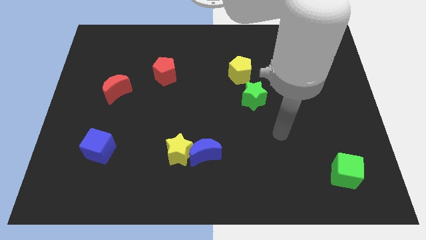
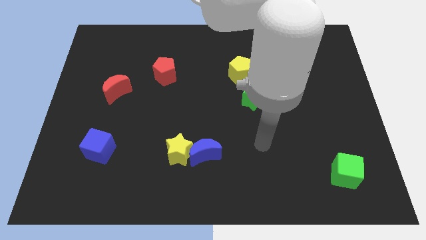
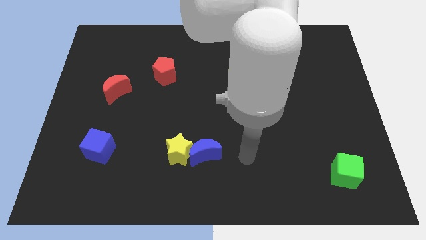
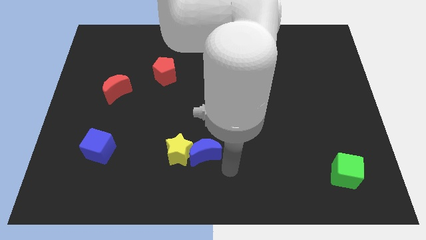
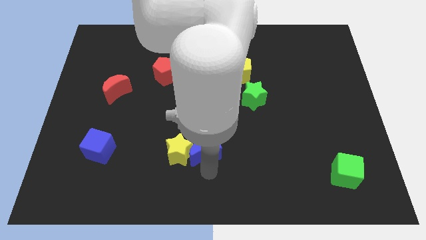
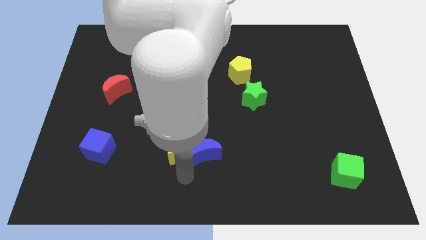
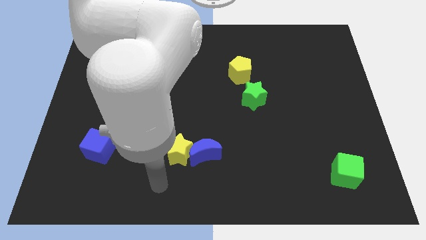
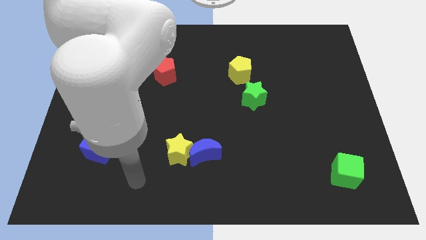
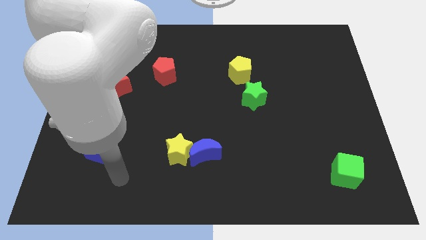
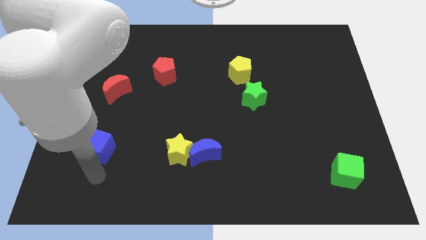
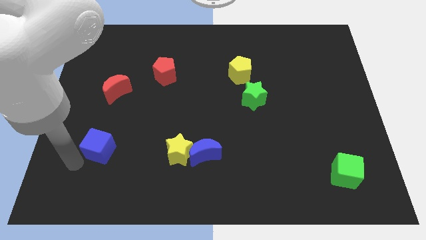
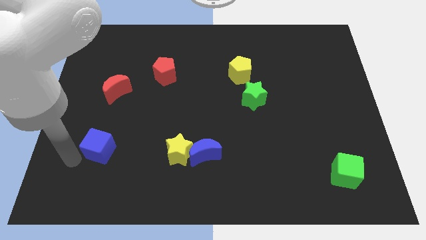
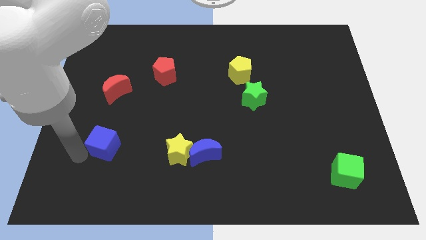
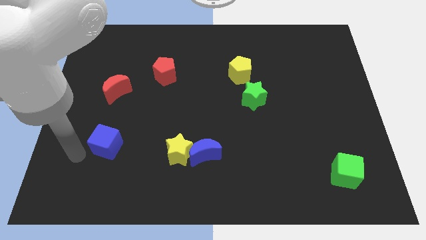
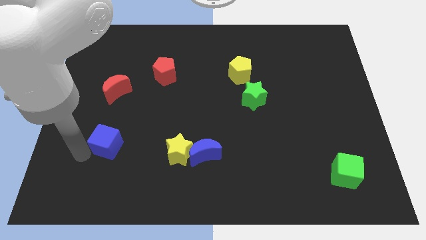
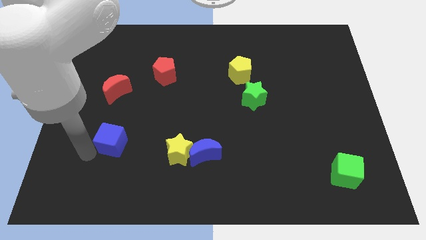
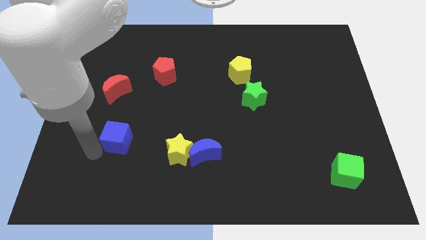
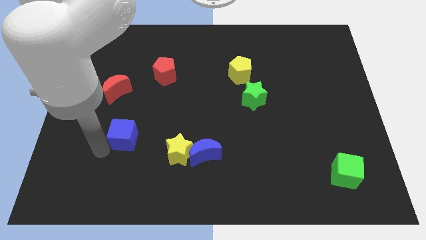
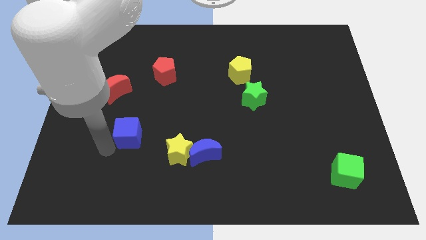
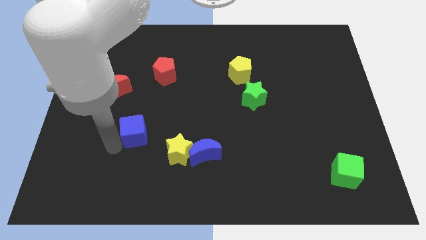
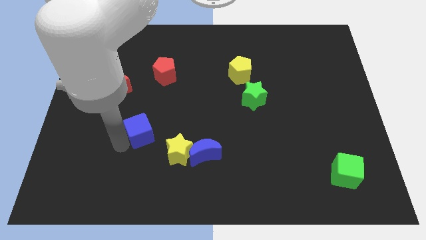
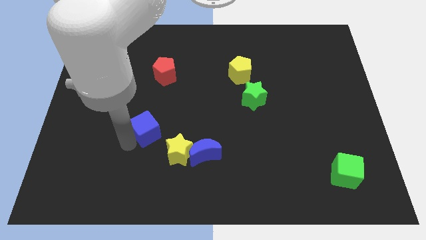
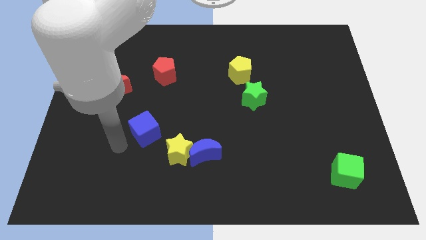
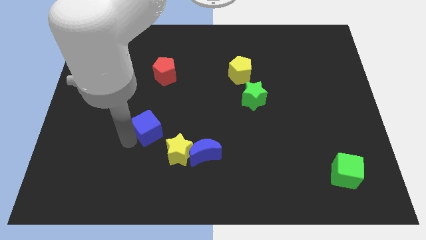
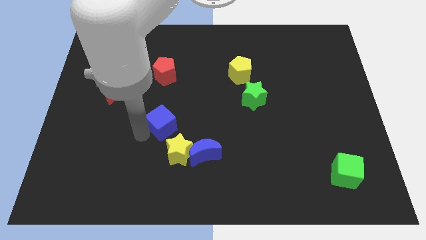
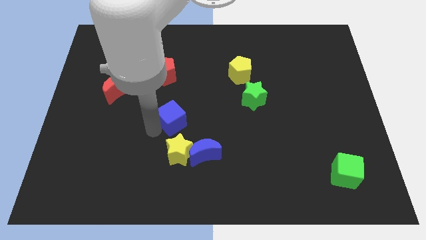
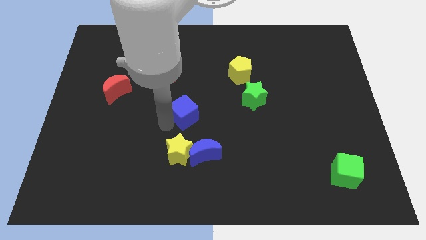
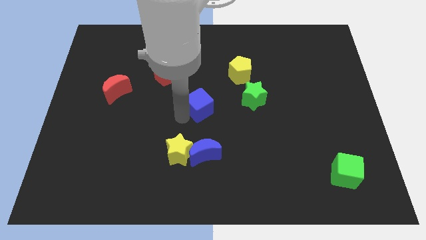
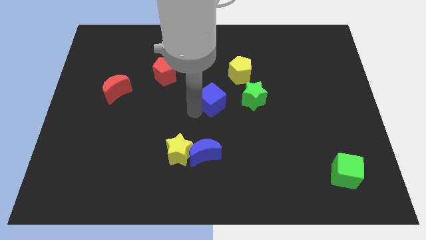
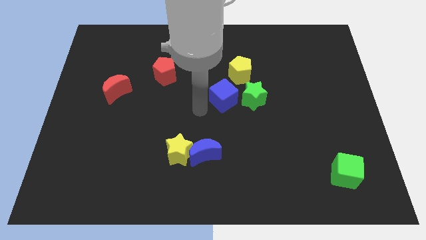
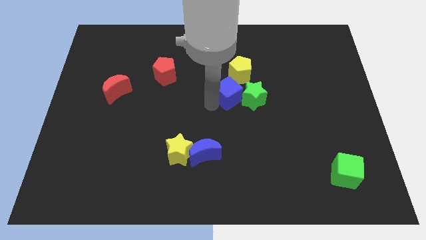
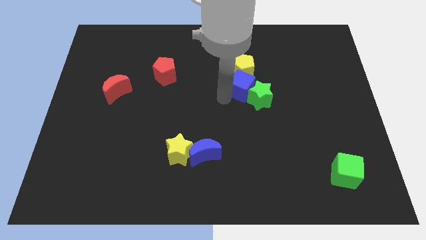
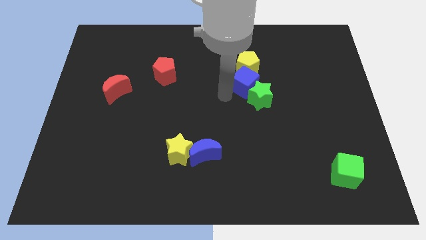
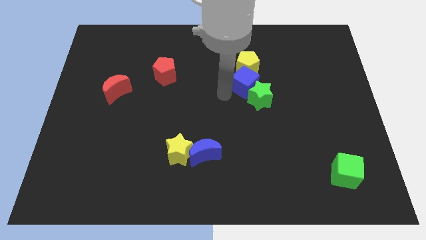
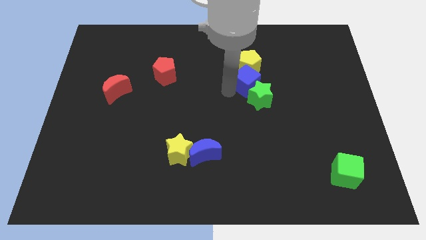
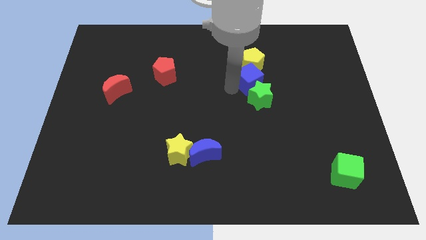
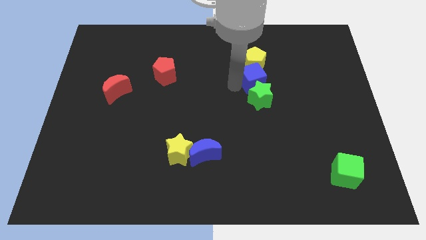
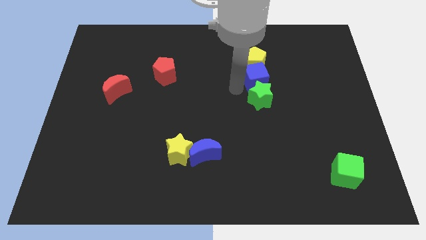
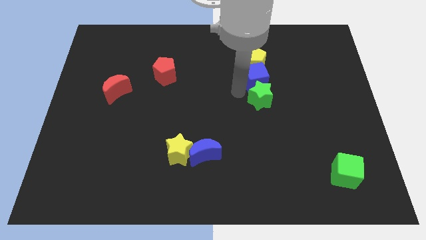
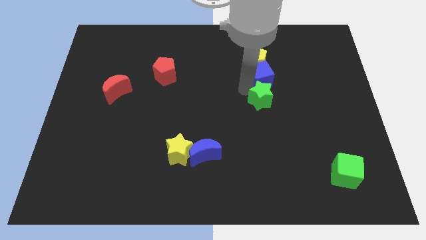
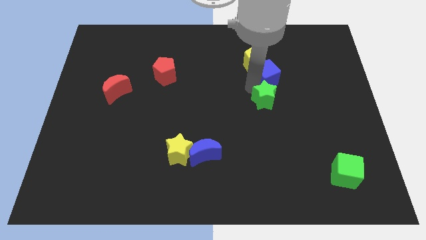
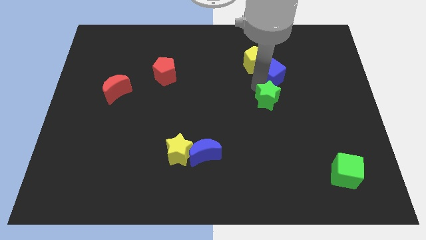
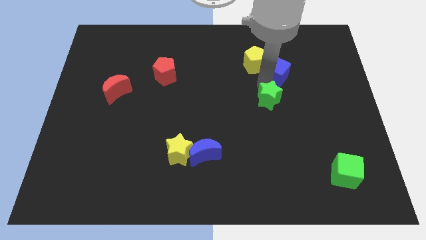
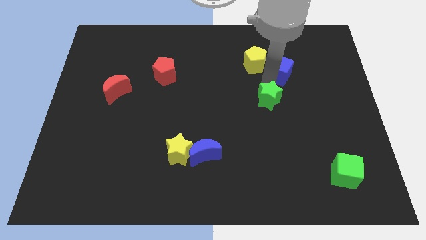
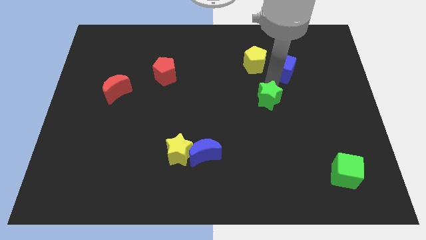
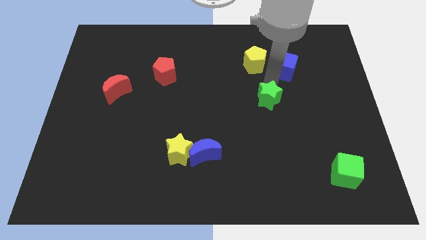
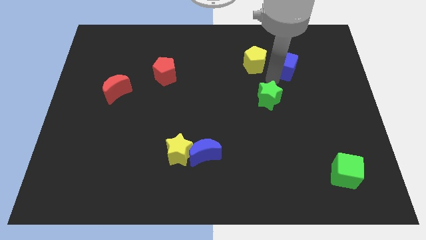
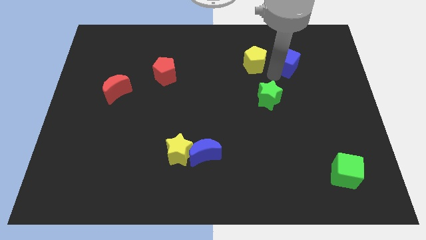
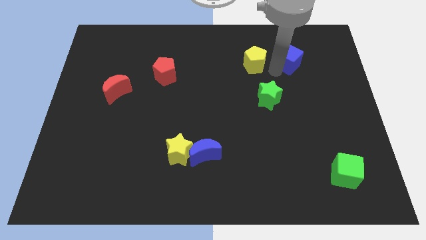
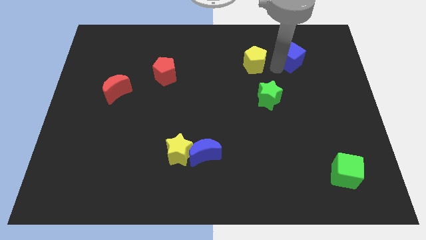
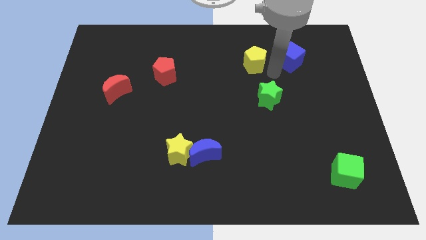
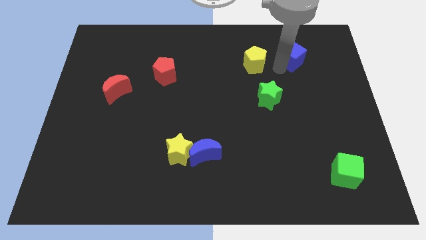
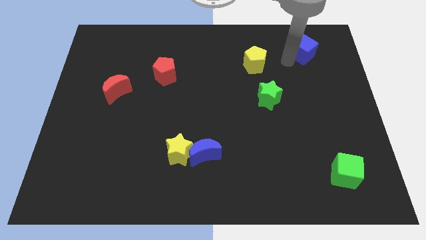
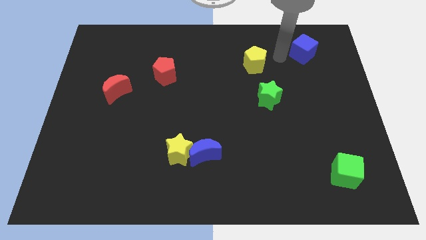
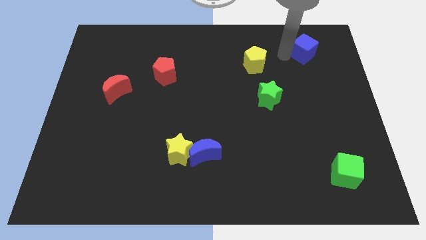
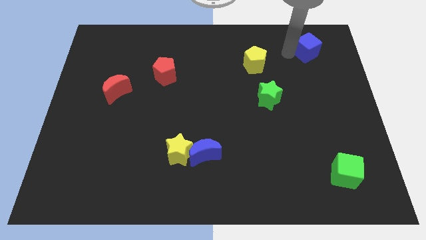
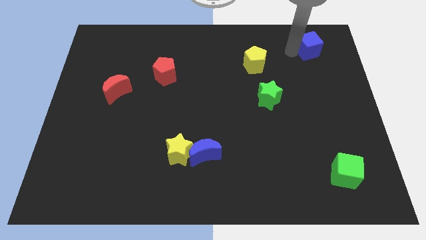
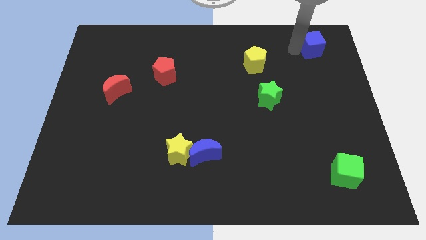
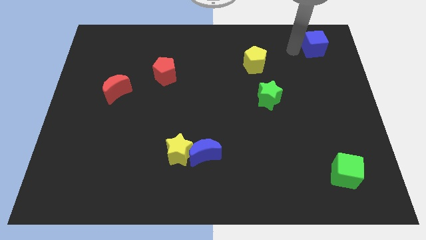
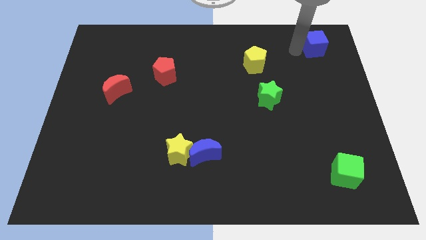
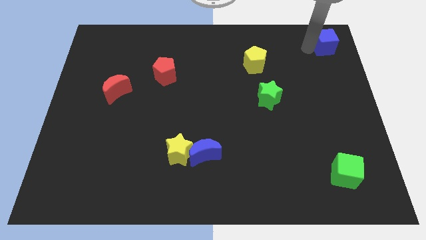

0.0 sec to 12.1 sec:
move the blue cube to the top right of the board
